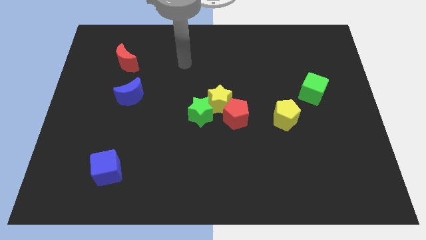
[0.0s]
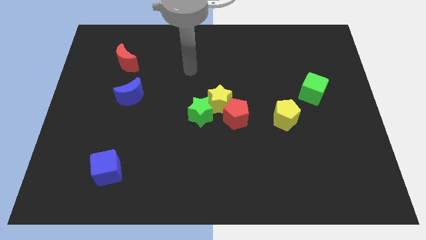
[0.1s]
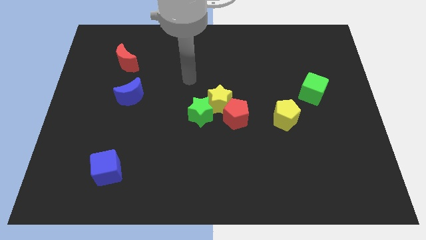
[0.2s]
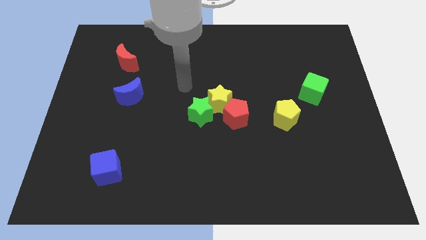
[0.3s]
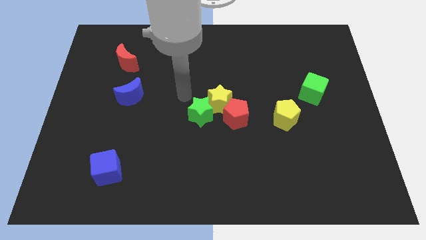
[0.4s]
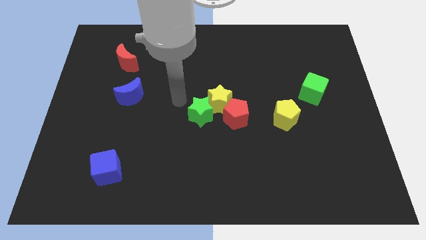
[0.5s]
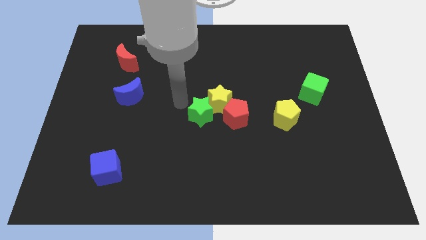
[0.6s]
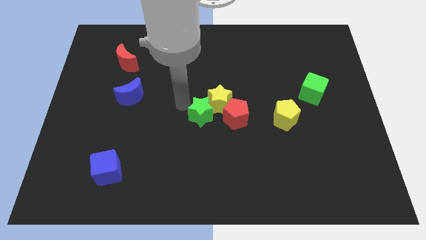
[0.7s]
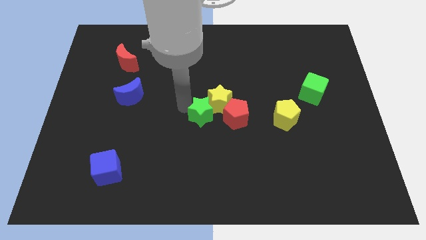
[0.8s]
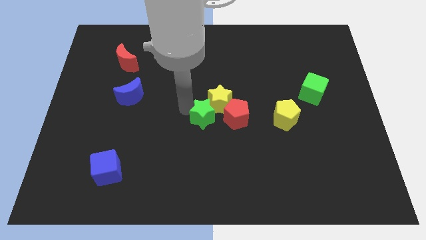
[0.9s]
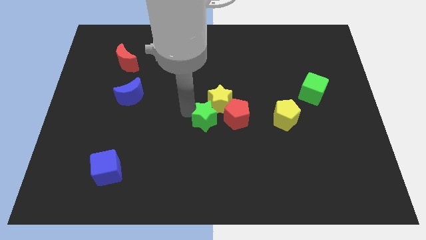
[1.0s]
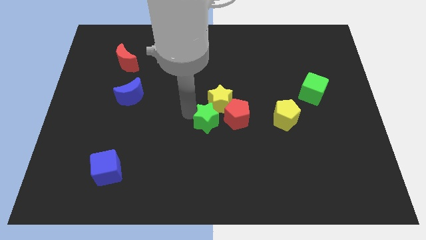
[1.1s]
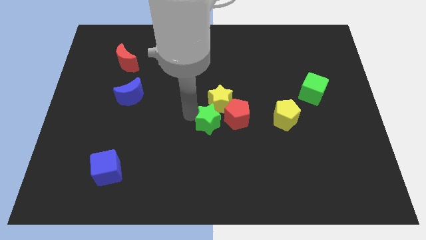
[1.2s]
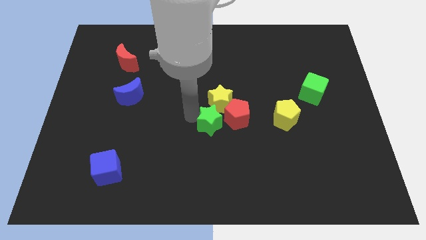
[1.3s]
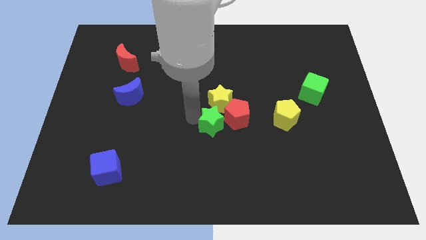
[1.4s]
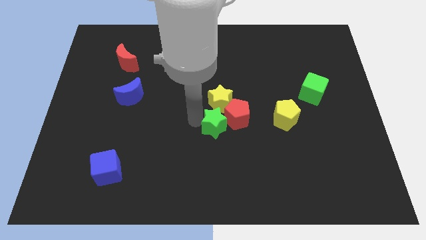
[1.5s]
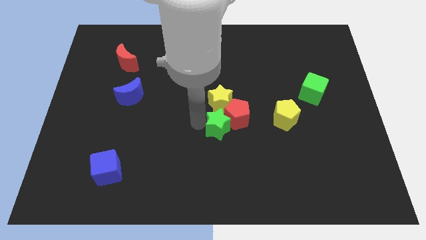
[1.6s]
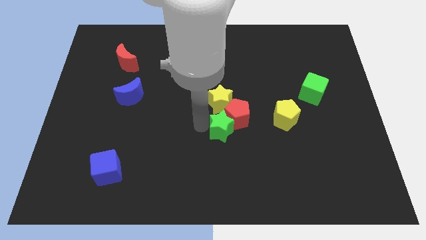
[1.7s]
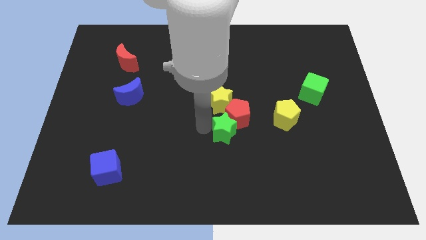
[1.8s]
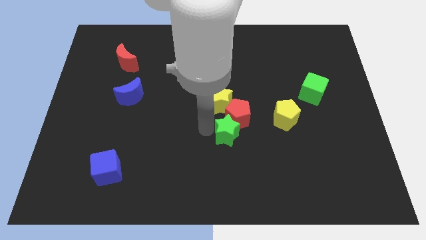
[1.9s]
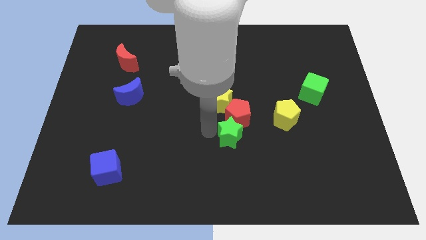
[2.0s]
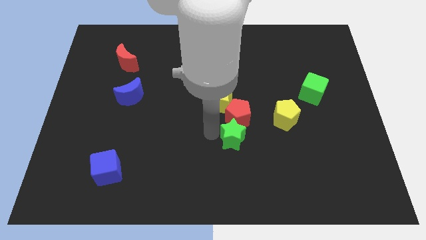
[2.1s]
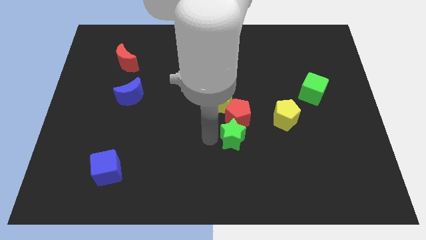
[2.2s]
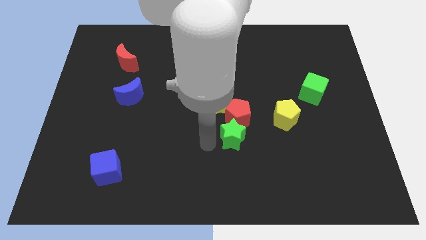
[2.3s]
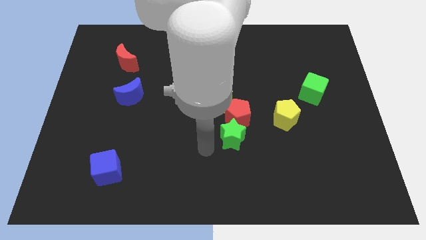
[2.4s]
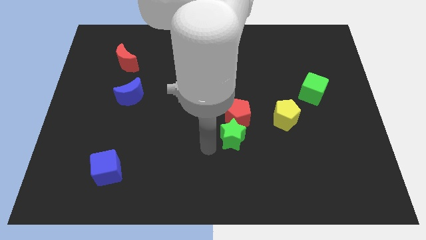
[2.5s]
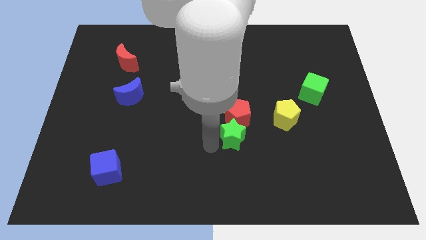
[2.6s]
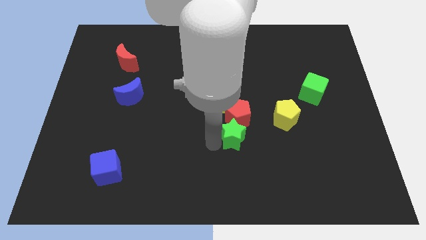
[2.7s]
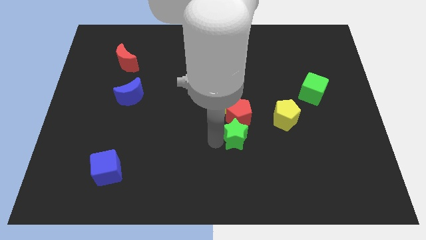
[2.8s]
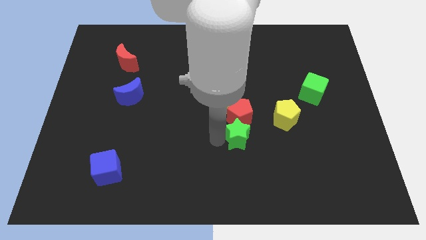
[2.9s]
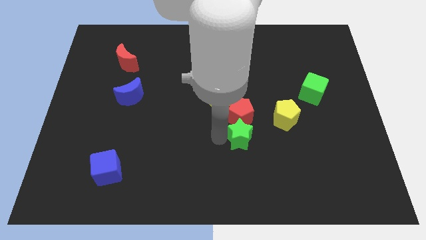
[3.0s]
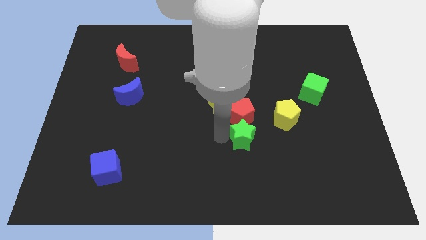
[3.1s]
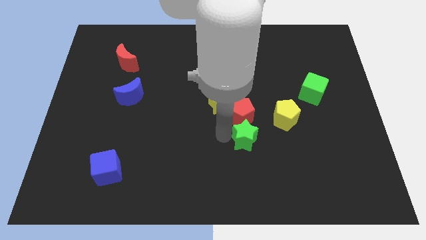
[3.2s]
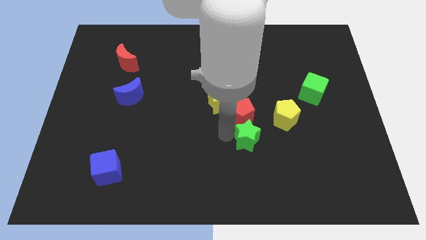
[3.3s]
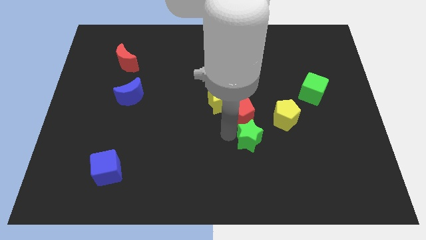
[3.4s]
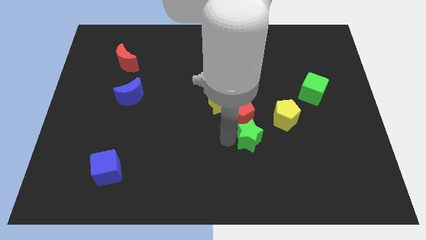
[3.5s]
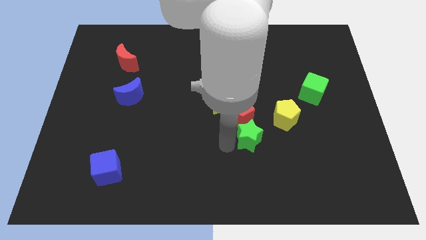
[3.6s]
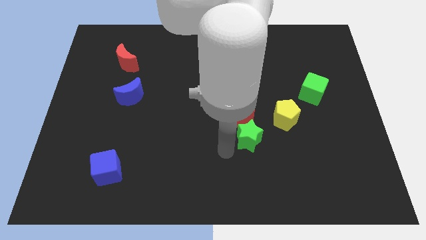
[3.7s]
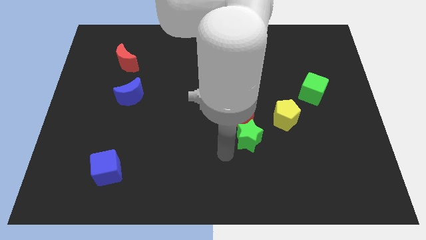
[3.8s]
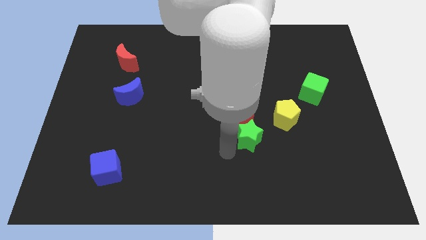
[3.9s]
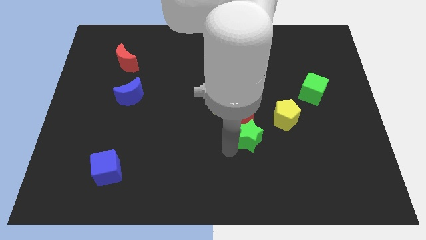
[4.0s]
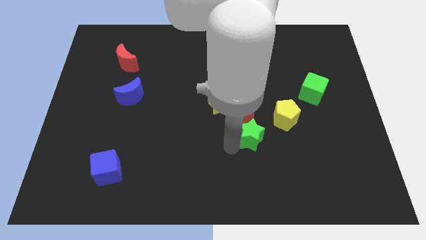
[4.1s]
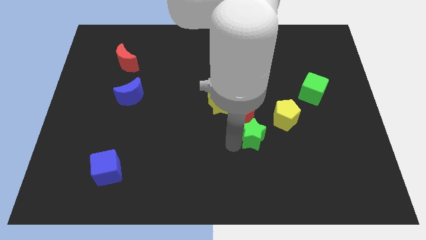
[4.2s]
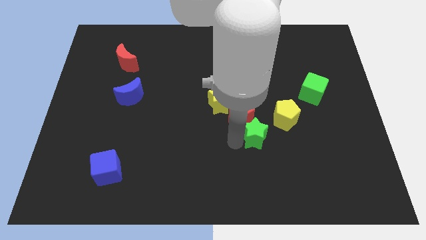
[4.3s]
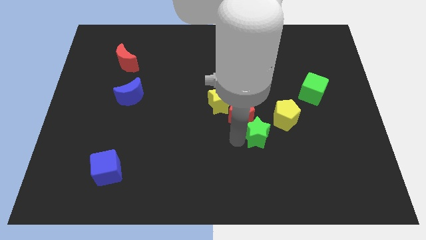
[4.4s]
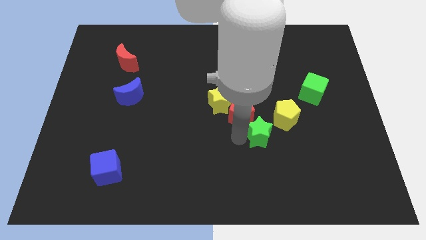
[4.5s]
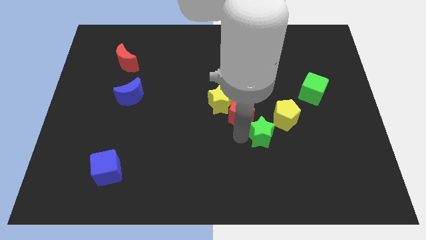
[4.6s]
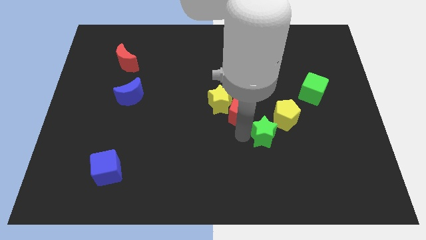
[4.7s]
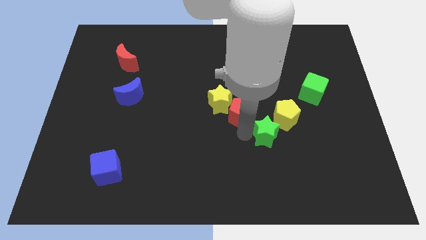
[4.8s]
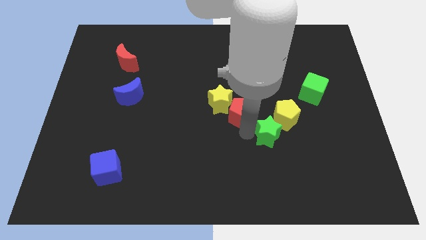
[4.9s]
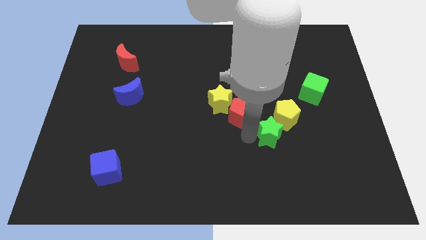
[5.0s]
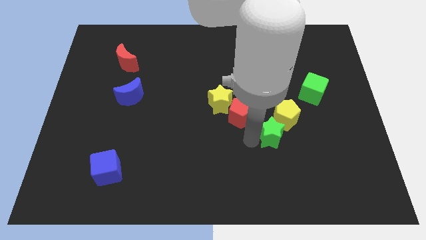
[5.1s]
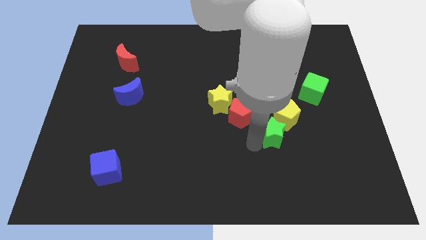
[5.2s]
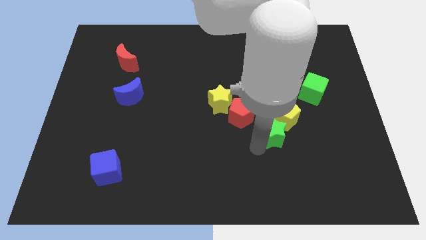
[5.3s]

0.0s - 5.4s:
move the green star towards the yellow pentagon

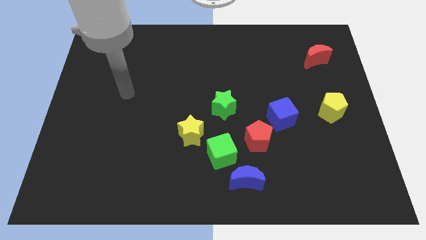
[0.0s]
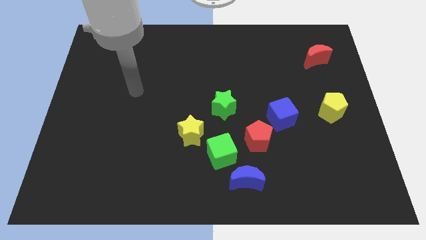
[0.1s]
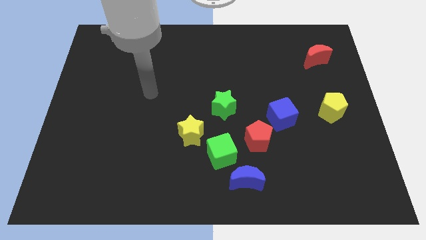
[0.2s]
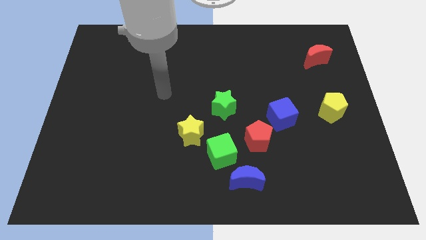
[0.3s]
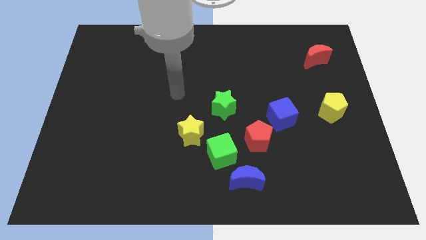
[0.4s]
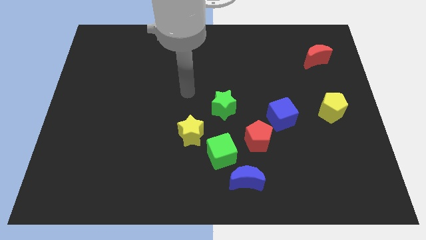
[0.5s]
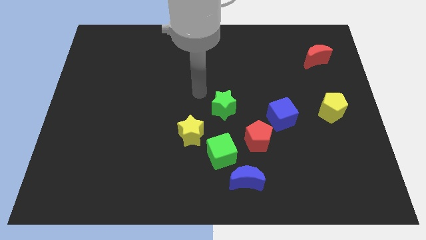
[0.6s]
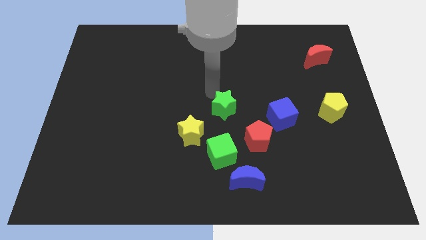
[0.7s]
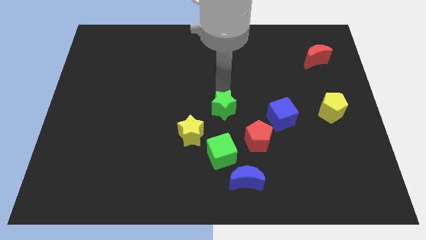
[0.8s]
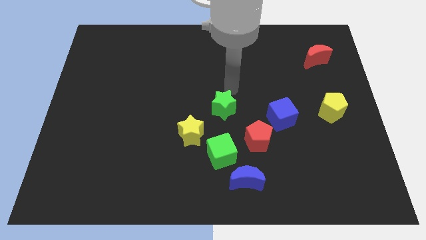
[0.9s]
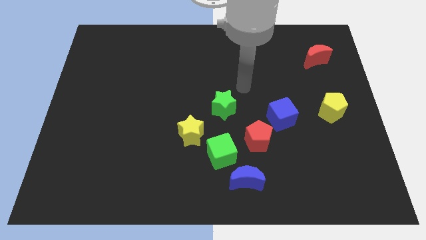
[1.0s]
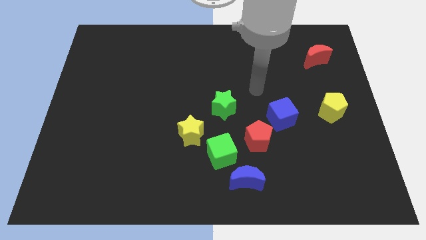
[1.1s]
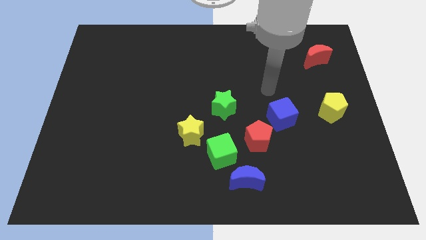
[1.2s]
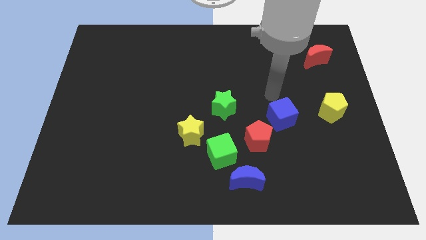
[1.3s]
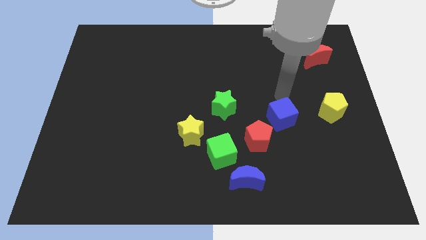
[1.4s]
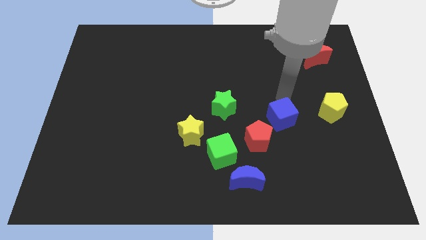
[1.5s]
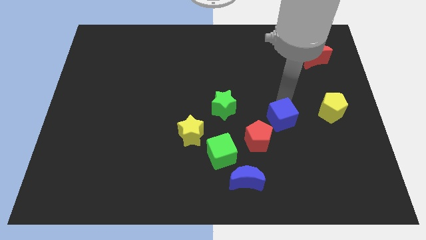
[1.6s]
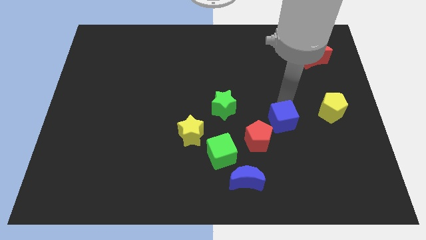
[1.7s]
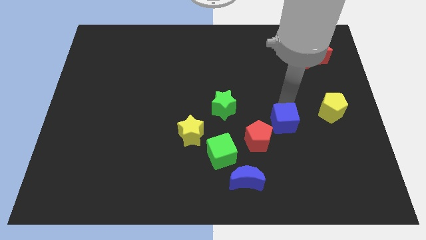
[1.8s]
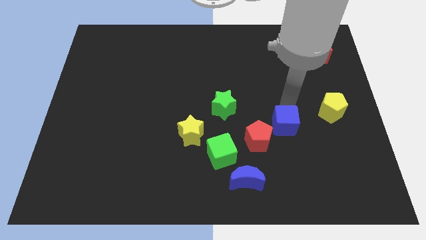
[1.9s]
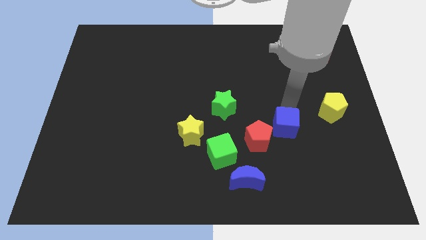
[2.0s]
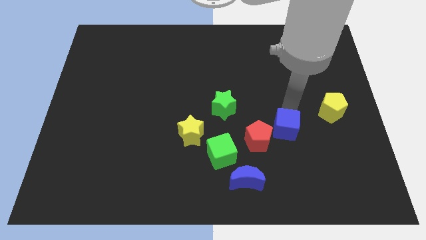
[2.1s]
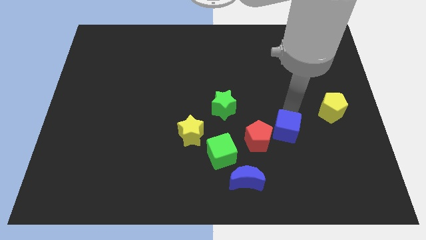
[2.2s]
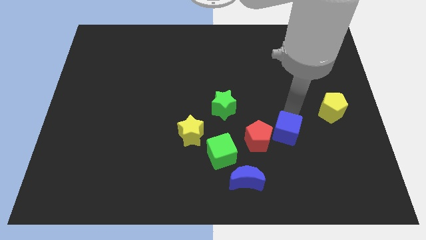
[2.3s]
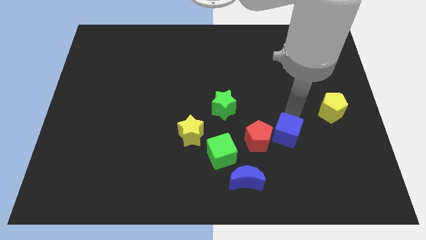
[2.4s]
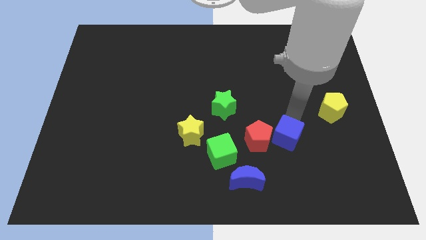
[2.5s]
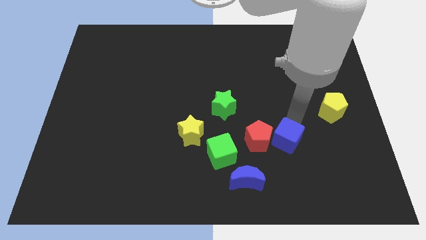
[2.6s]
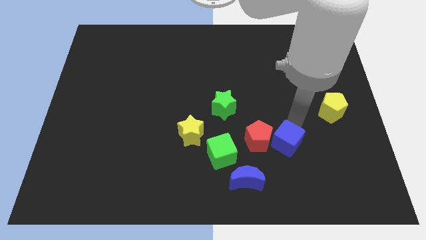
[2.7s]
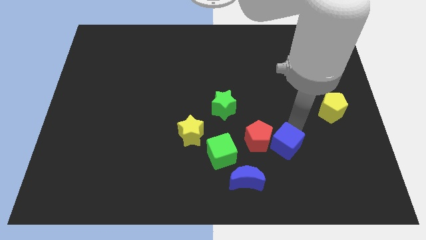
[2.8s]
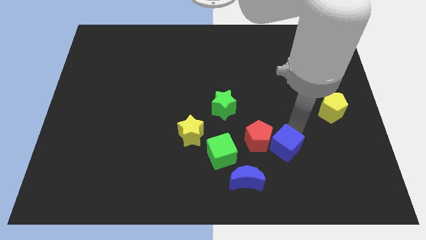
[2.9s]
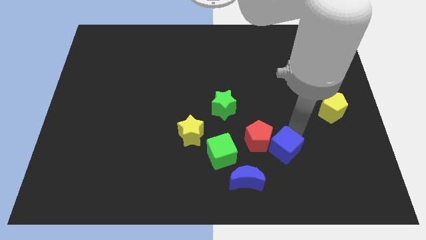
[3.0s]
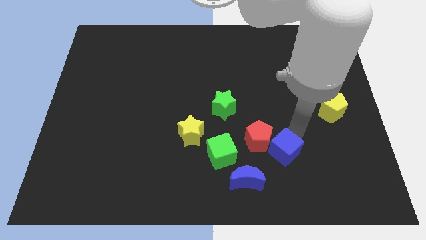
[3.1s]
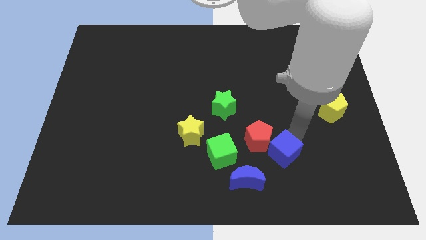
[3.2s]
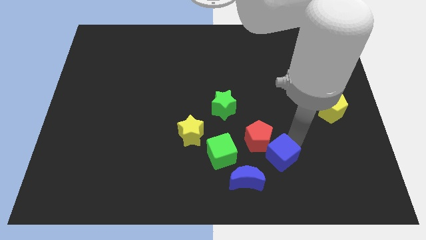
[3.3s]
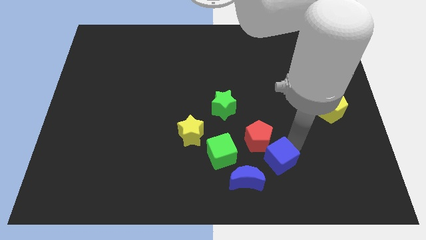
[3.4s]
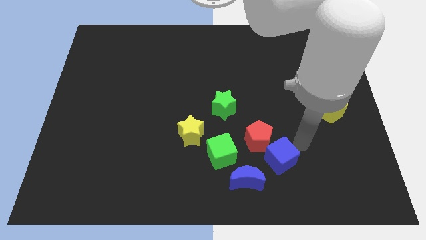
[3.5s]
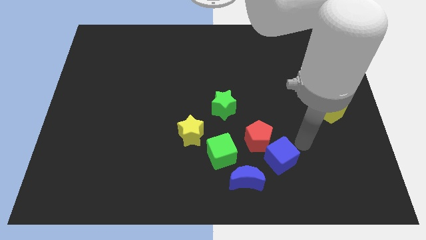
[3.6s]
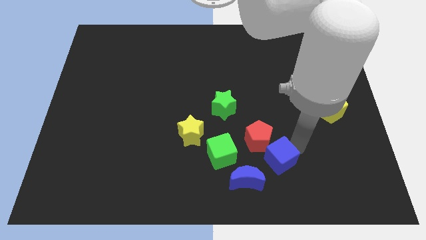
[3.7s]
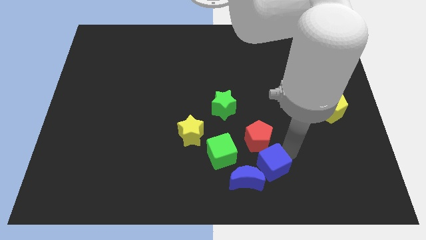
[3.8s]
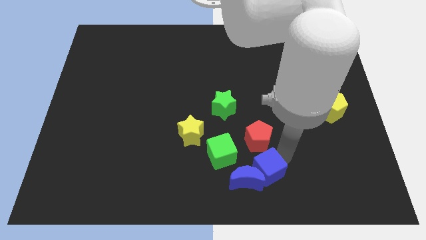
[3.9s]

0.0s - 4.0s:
slide the blue cube close to the blue moon
